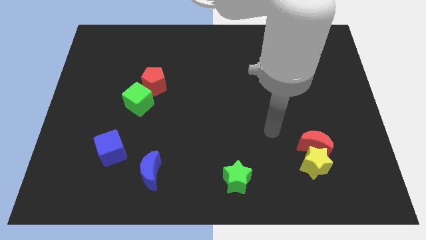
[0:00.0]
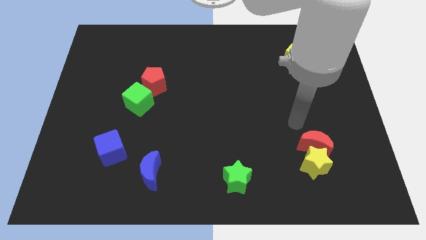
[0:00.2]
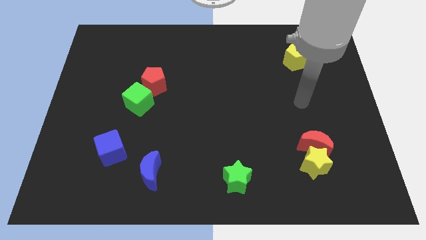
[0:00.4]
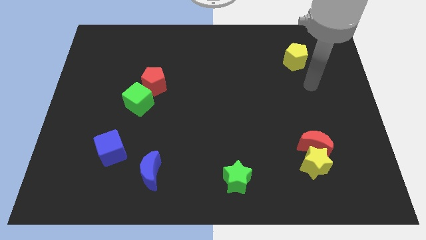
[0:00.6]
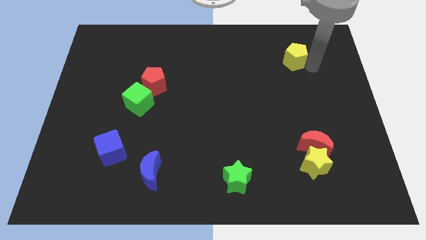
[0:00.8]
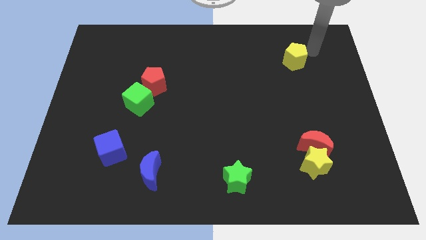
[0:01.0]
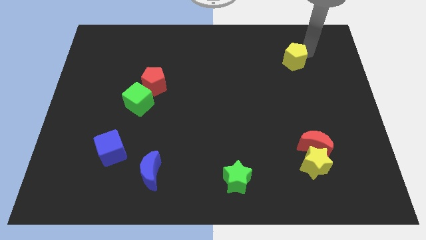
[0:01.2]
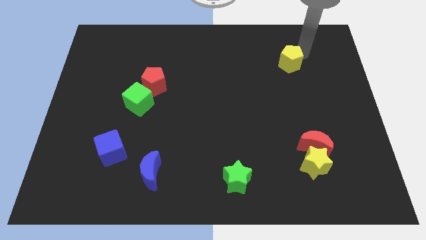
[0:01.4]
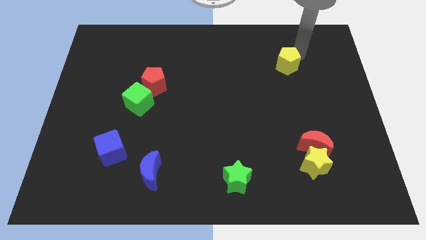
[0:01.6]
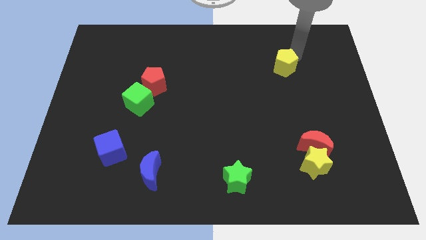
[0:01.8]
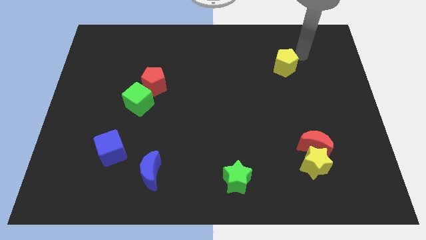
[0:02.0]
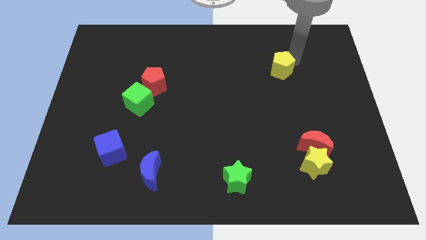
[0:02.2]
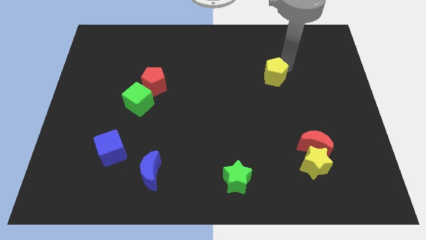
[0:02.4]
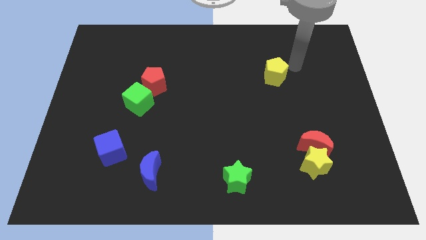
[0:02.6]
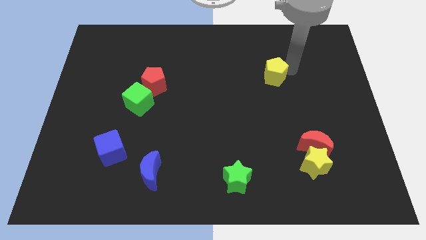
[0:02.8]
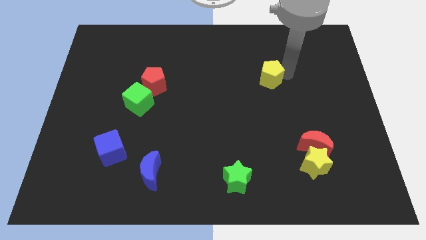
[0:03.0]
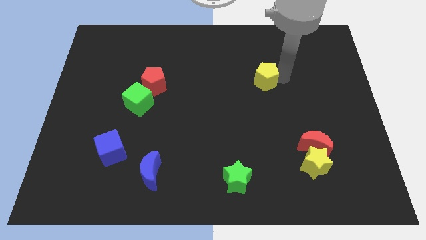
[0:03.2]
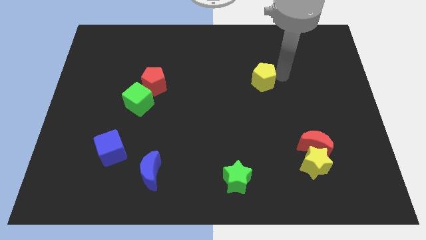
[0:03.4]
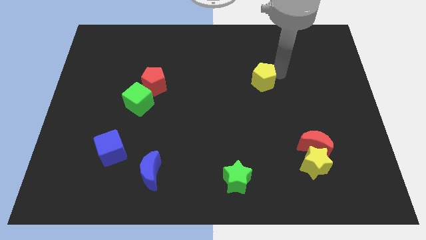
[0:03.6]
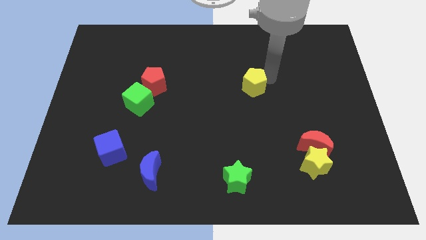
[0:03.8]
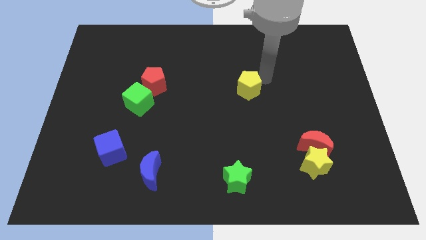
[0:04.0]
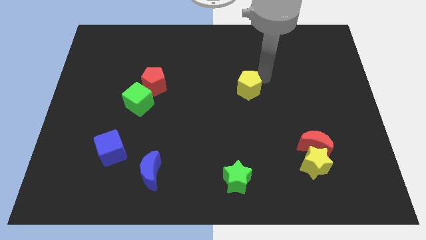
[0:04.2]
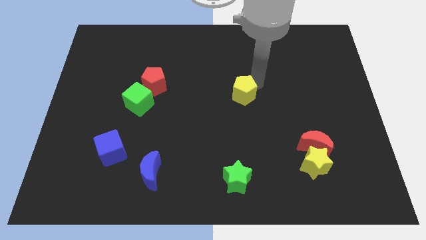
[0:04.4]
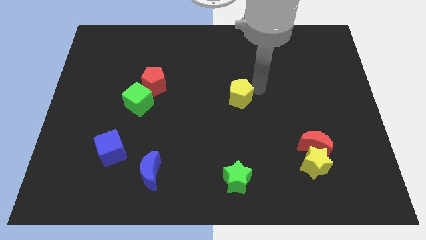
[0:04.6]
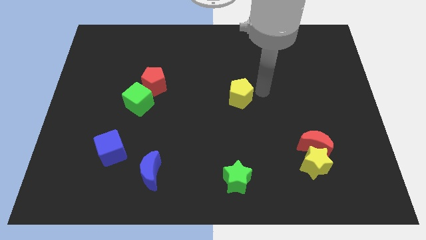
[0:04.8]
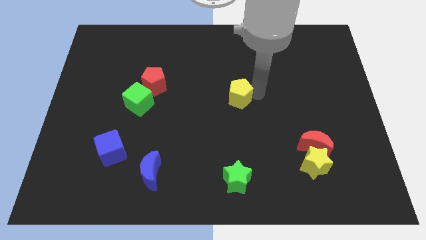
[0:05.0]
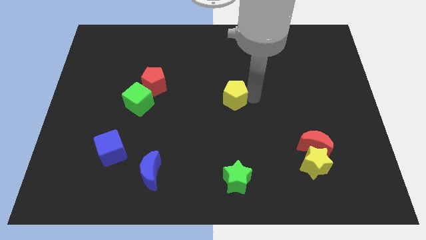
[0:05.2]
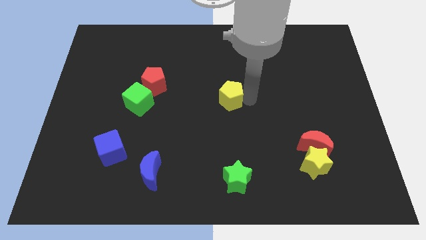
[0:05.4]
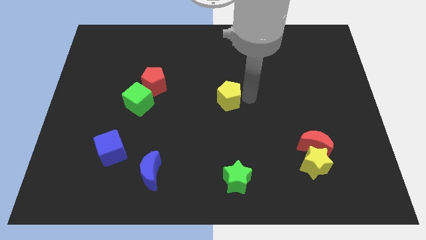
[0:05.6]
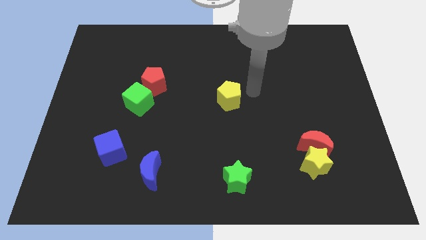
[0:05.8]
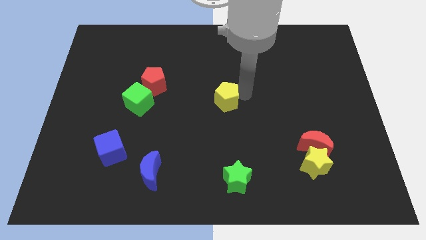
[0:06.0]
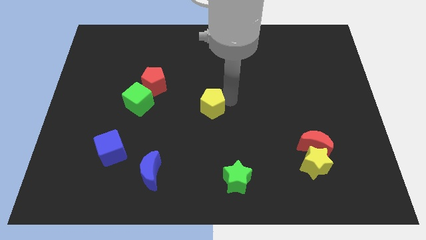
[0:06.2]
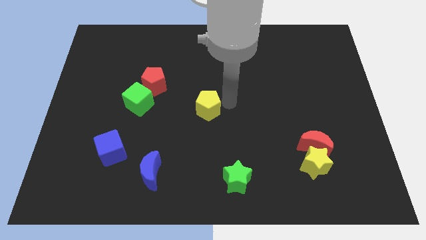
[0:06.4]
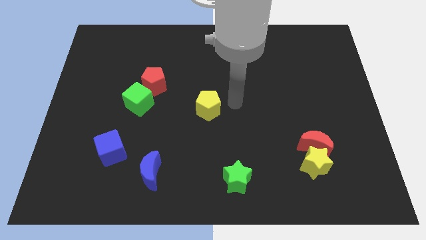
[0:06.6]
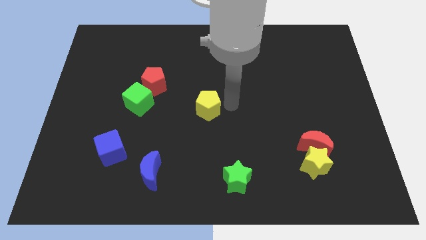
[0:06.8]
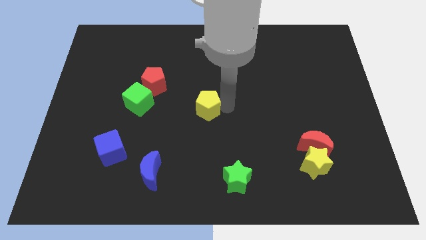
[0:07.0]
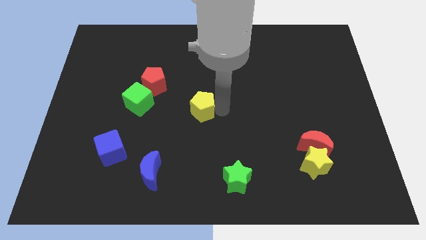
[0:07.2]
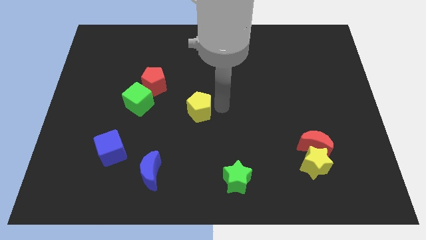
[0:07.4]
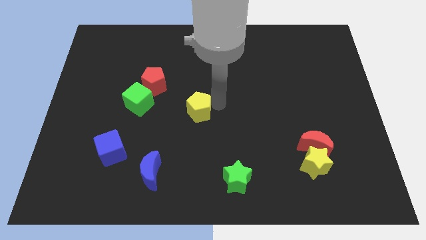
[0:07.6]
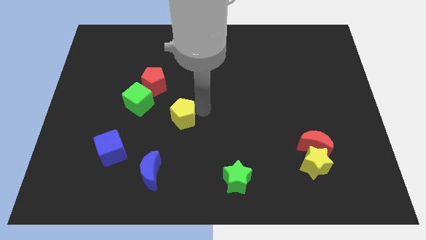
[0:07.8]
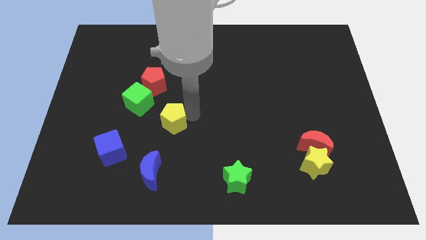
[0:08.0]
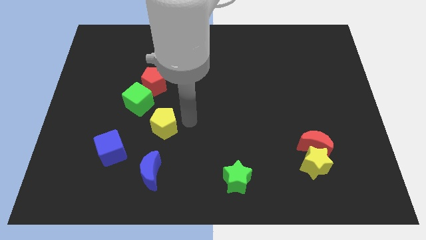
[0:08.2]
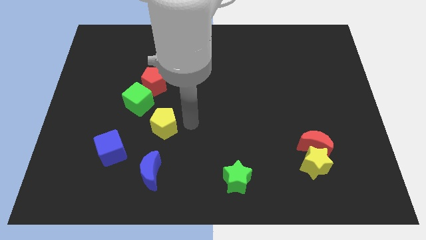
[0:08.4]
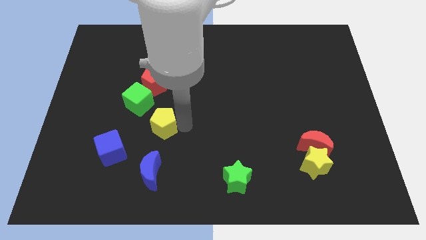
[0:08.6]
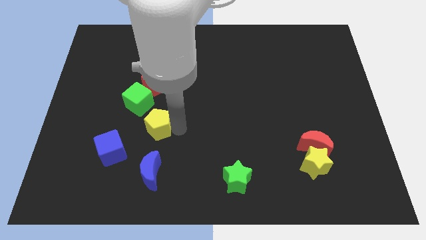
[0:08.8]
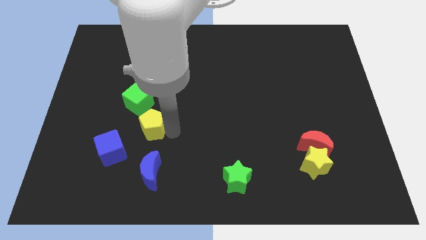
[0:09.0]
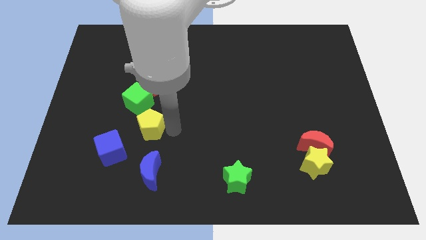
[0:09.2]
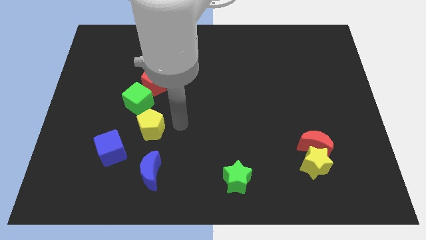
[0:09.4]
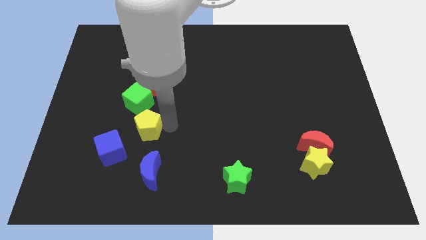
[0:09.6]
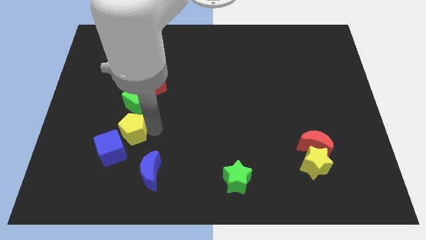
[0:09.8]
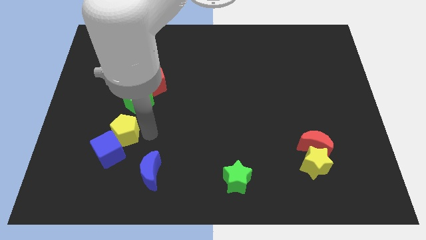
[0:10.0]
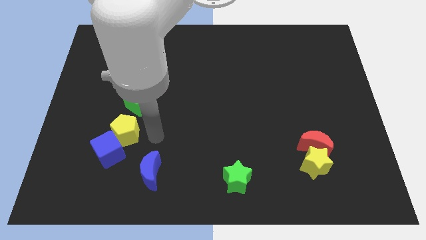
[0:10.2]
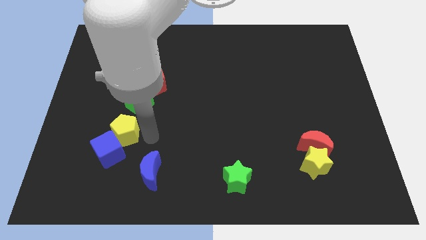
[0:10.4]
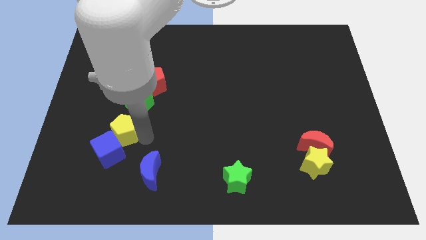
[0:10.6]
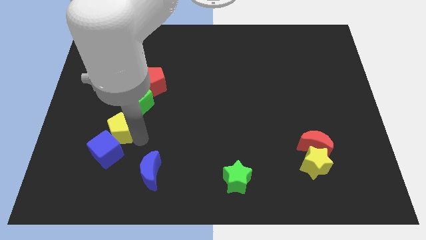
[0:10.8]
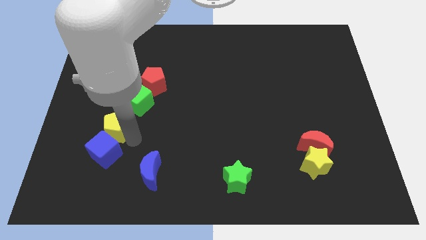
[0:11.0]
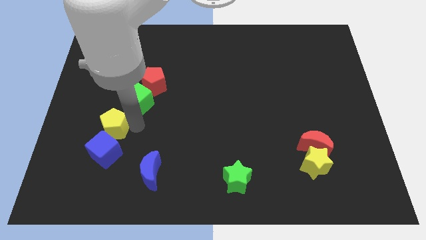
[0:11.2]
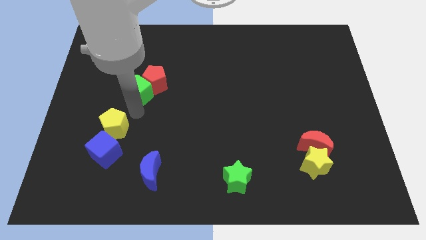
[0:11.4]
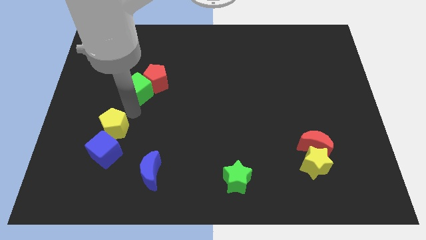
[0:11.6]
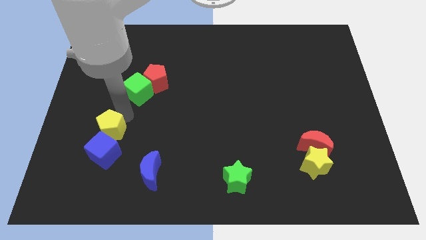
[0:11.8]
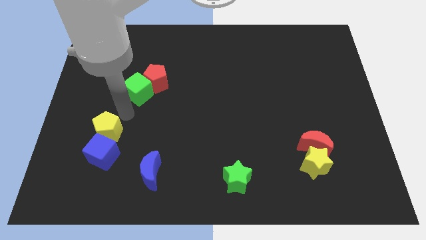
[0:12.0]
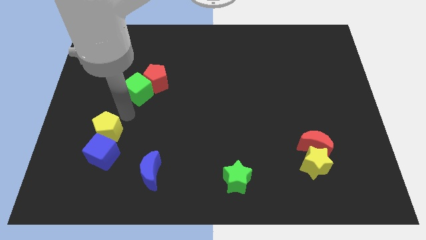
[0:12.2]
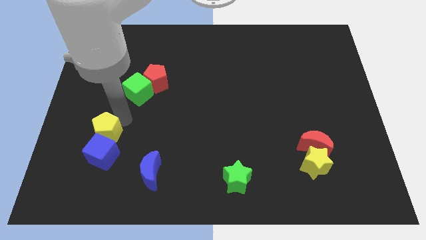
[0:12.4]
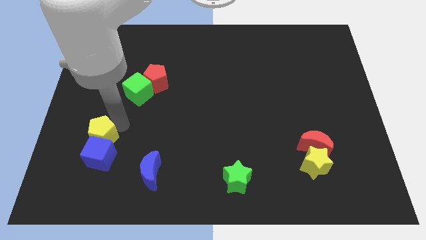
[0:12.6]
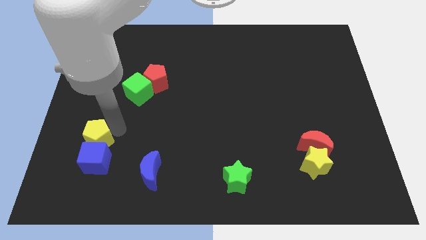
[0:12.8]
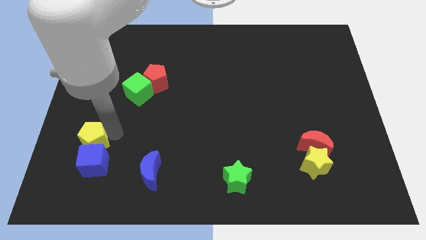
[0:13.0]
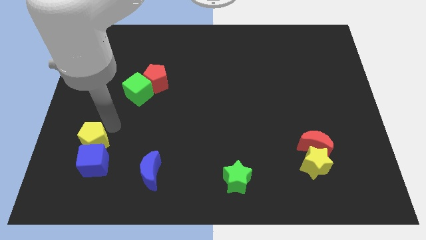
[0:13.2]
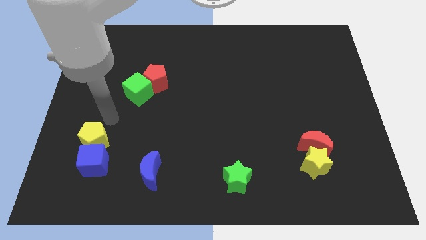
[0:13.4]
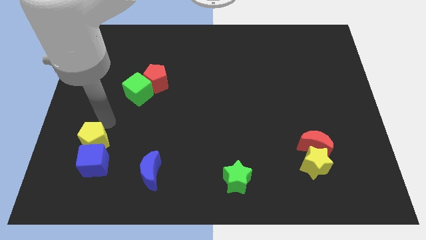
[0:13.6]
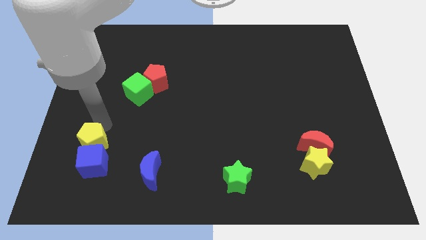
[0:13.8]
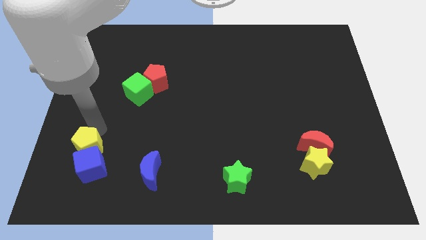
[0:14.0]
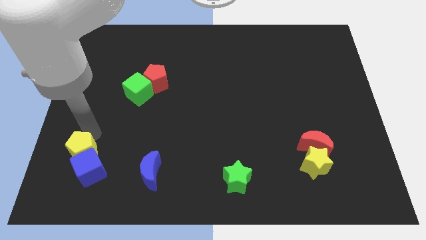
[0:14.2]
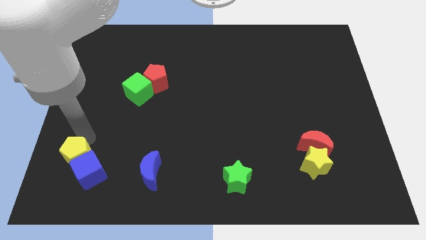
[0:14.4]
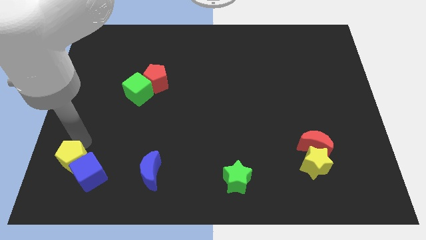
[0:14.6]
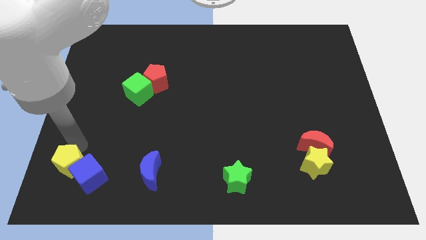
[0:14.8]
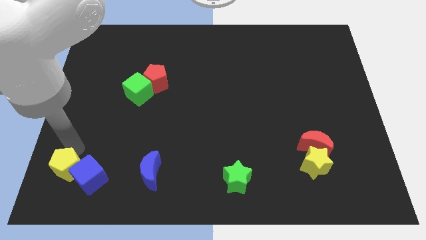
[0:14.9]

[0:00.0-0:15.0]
slide the yellow pentagon to the lower left corner
